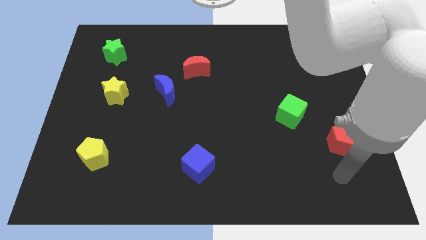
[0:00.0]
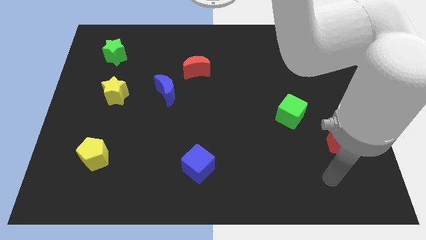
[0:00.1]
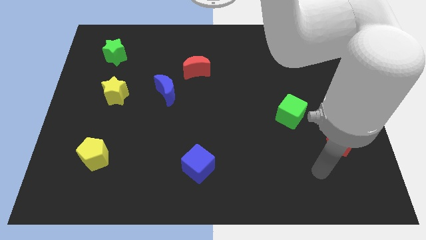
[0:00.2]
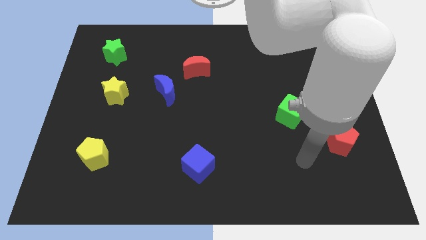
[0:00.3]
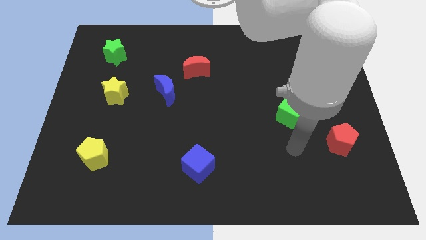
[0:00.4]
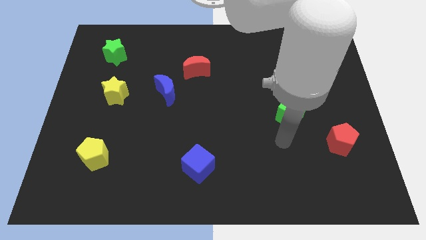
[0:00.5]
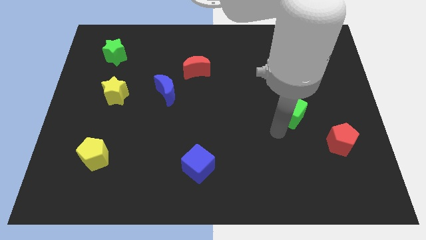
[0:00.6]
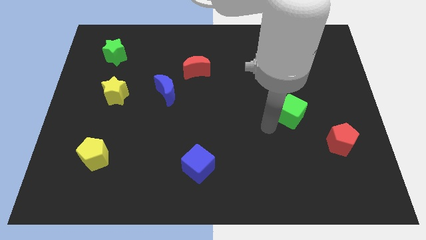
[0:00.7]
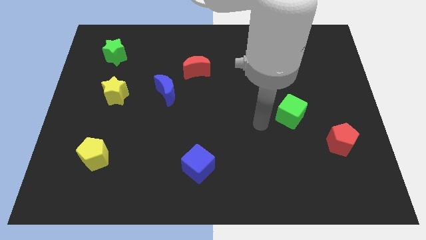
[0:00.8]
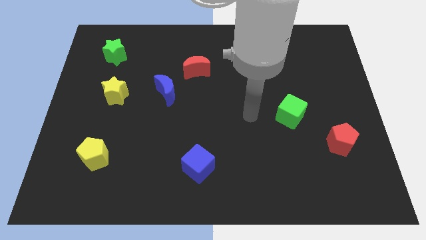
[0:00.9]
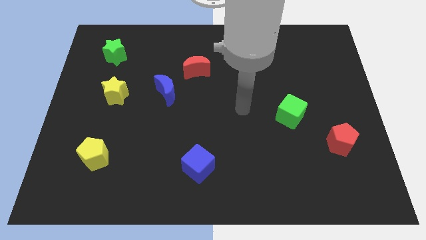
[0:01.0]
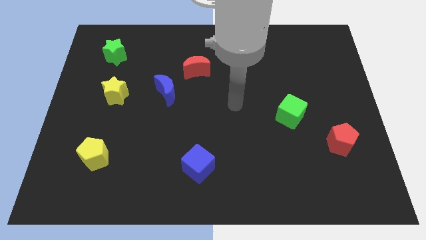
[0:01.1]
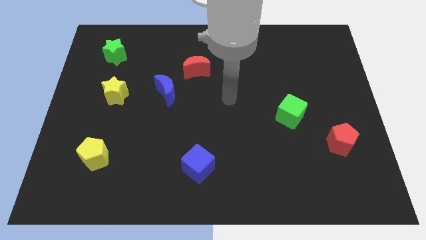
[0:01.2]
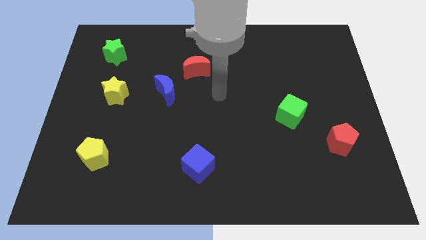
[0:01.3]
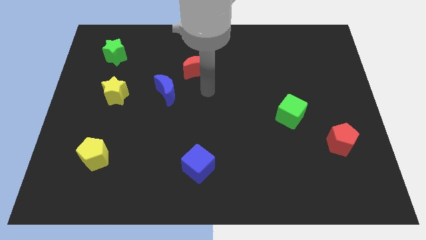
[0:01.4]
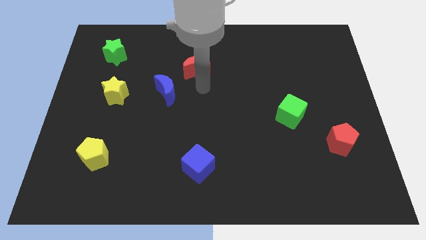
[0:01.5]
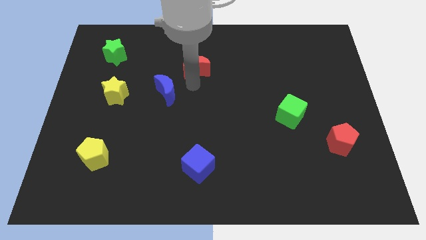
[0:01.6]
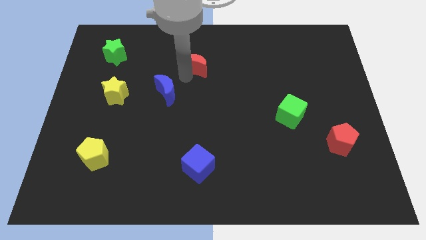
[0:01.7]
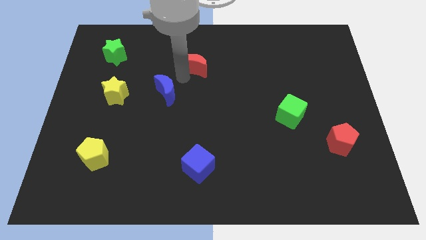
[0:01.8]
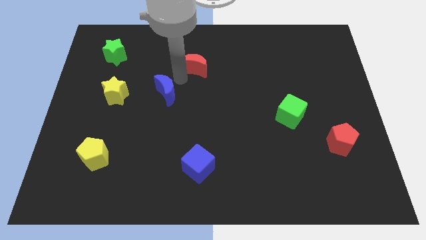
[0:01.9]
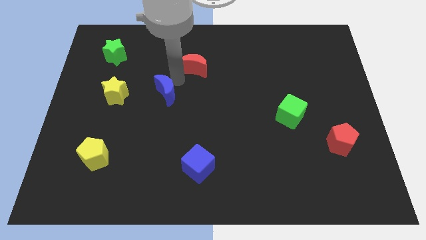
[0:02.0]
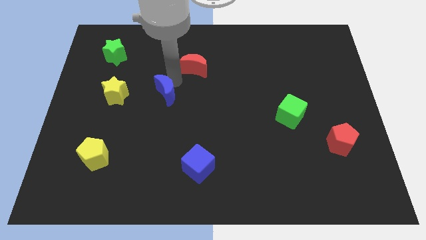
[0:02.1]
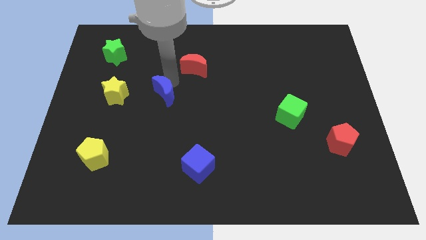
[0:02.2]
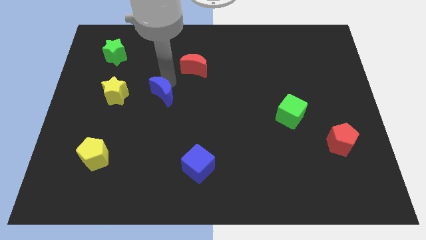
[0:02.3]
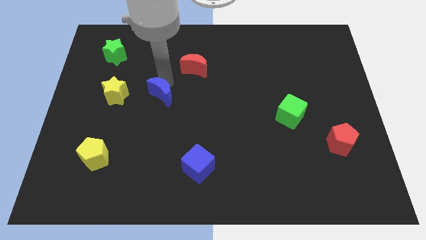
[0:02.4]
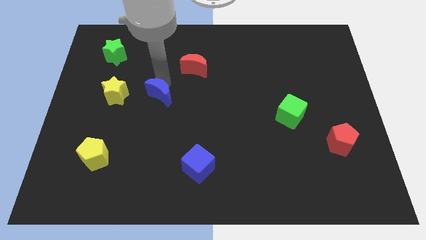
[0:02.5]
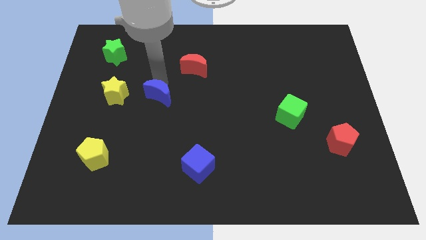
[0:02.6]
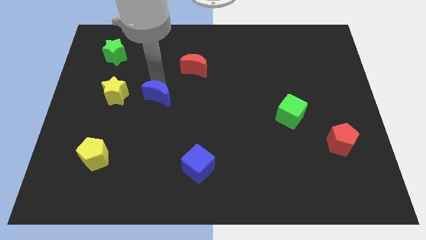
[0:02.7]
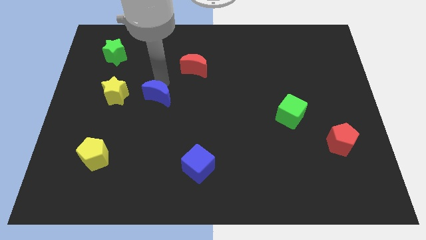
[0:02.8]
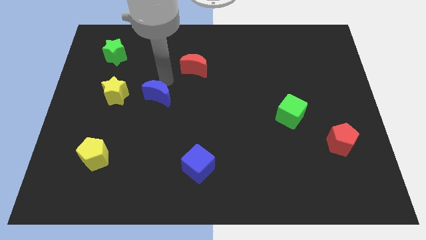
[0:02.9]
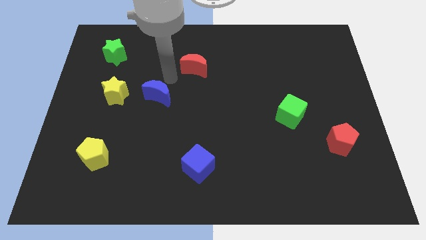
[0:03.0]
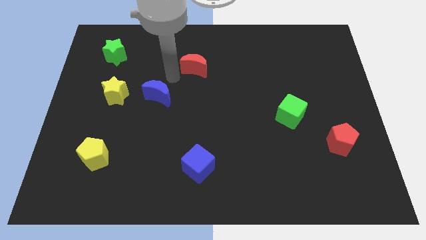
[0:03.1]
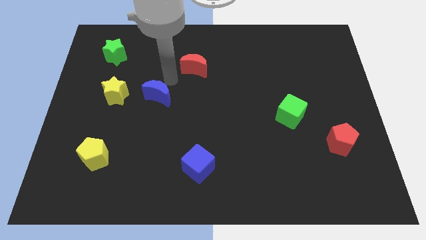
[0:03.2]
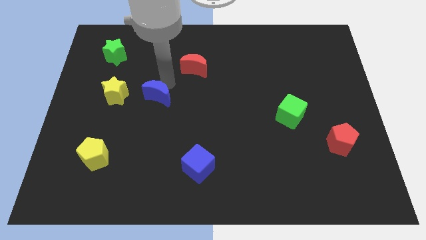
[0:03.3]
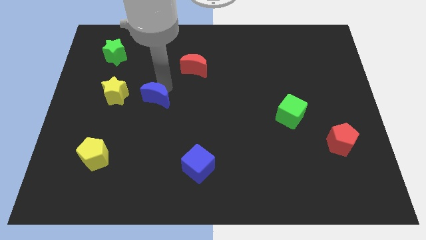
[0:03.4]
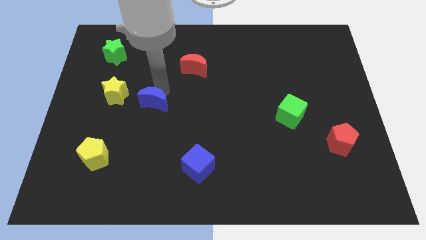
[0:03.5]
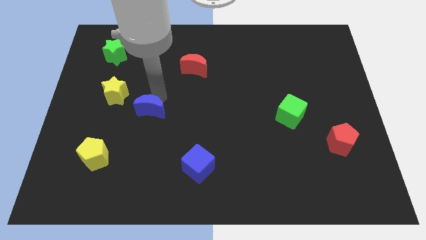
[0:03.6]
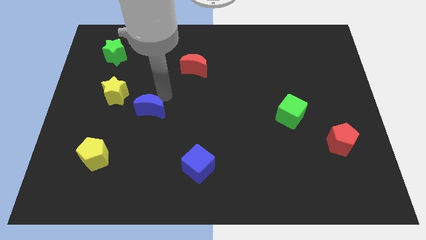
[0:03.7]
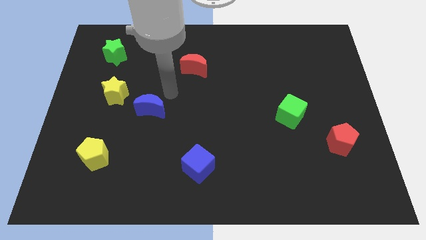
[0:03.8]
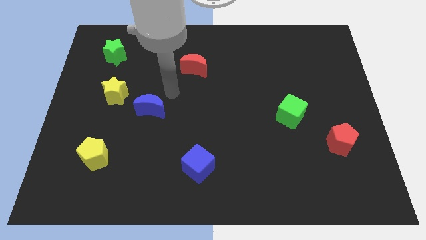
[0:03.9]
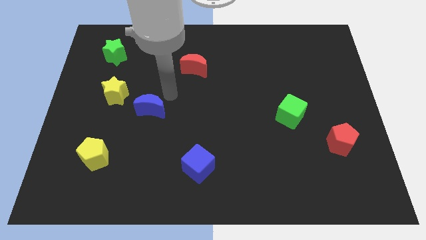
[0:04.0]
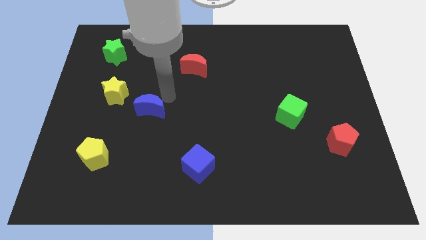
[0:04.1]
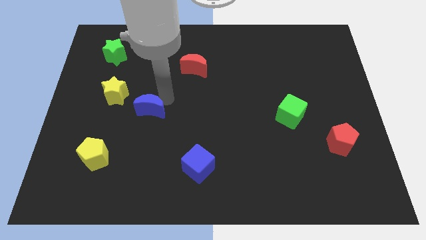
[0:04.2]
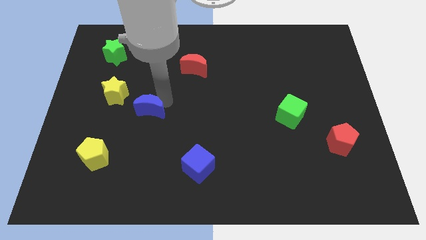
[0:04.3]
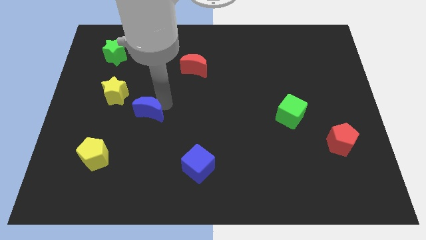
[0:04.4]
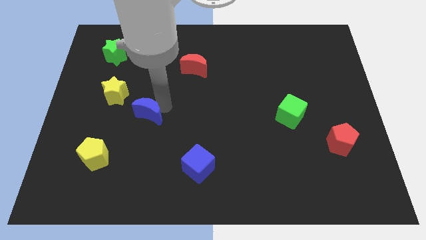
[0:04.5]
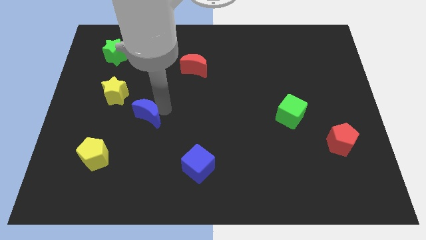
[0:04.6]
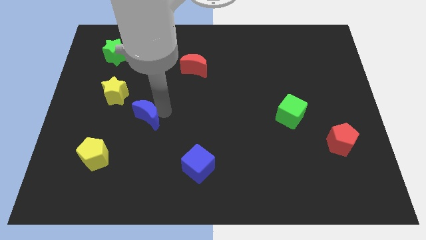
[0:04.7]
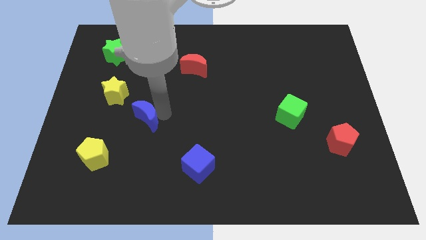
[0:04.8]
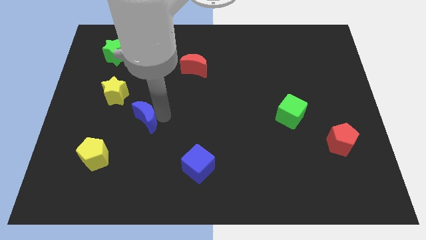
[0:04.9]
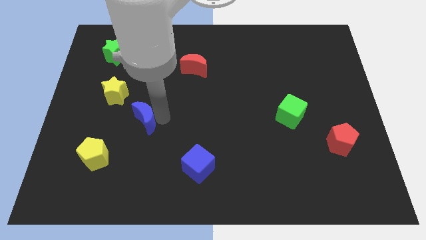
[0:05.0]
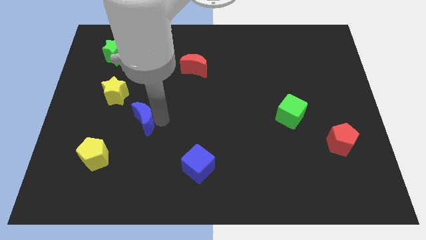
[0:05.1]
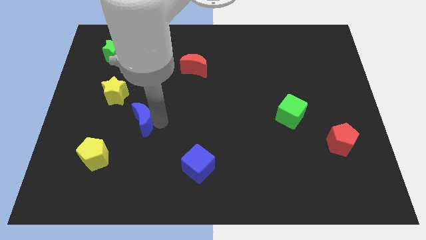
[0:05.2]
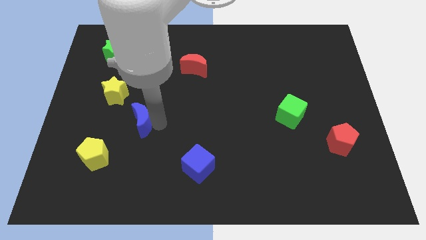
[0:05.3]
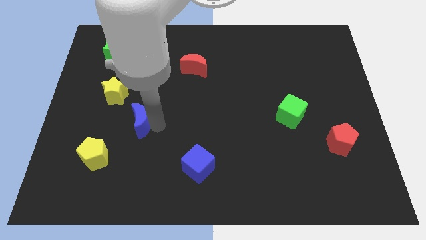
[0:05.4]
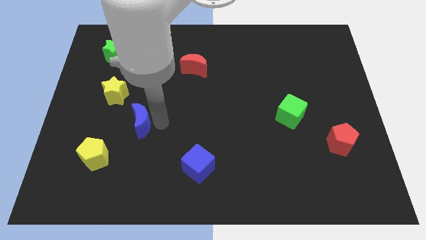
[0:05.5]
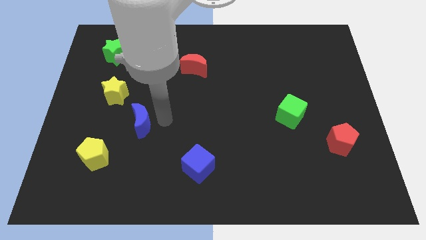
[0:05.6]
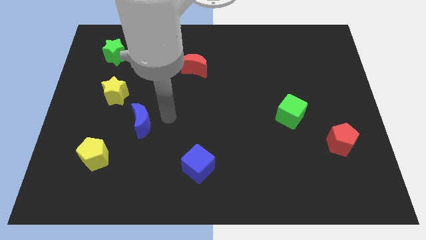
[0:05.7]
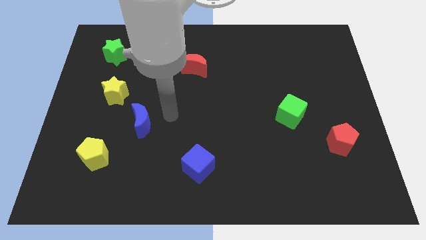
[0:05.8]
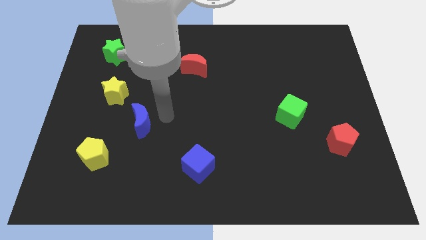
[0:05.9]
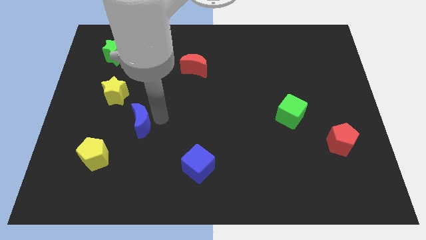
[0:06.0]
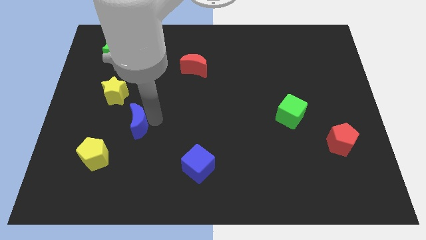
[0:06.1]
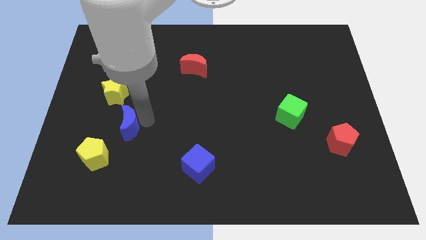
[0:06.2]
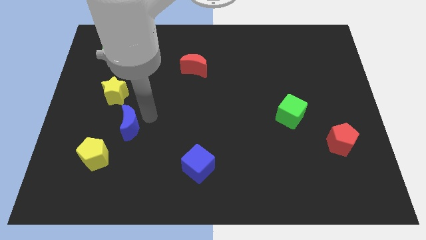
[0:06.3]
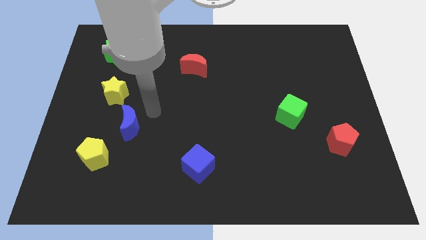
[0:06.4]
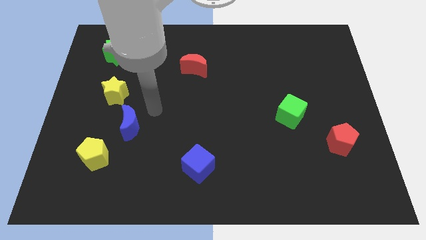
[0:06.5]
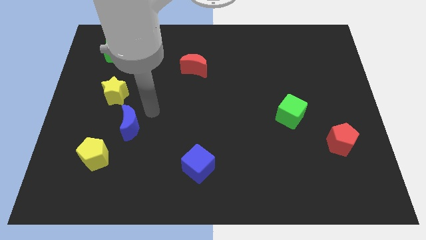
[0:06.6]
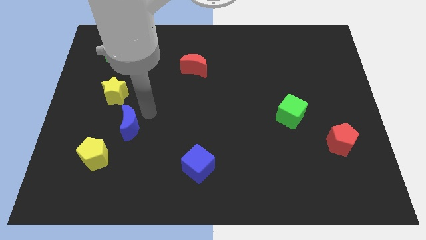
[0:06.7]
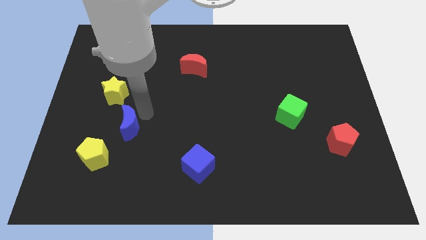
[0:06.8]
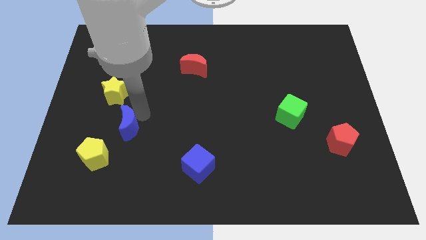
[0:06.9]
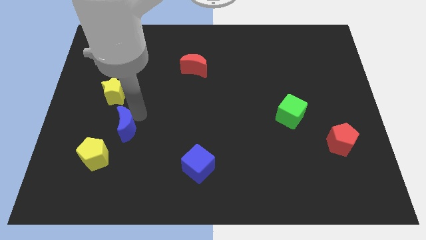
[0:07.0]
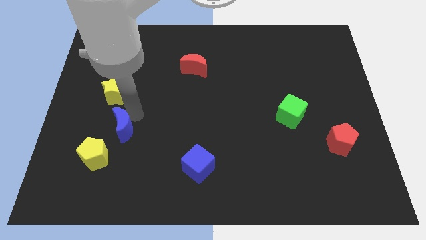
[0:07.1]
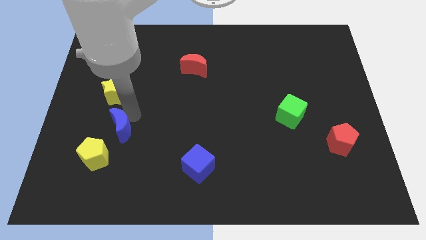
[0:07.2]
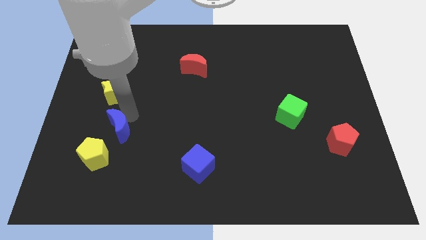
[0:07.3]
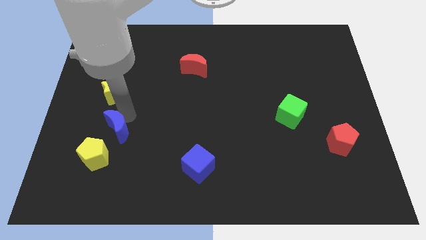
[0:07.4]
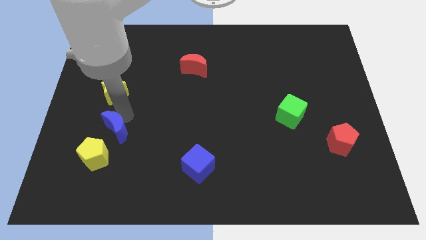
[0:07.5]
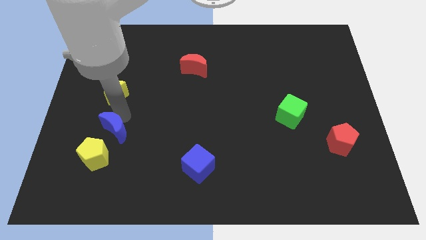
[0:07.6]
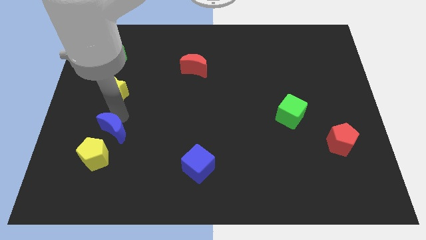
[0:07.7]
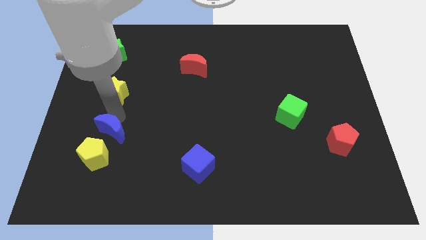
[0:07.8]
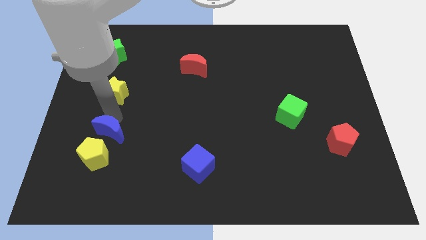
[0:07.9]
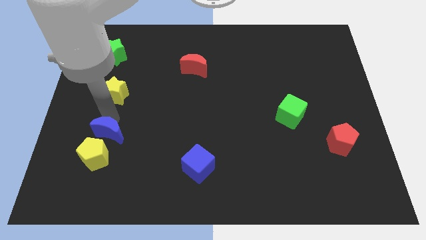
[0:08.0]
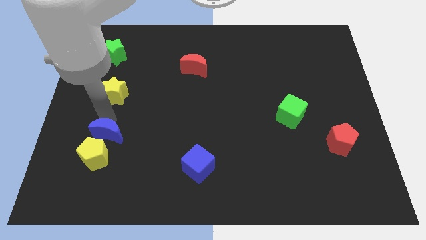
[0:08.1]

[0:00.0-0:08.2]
slide the blue moon towards the yellow pentagon
